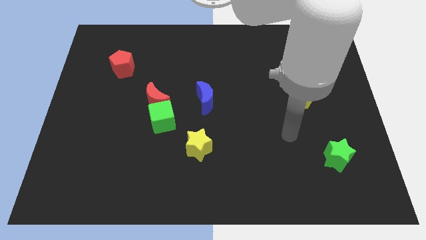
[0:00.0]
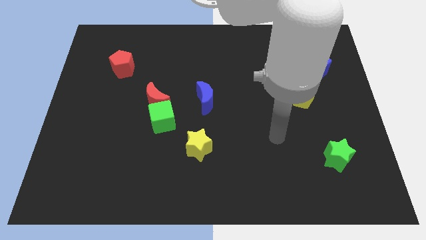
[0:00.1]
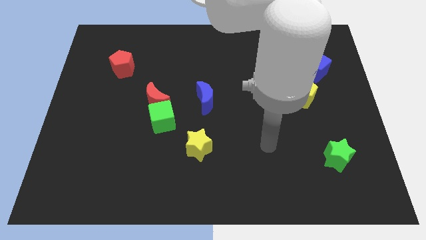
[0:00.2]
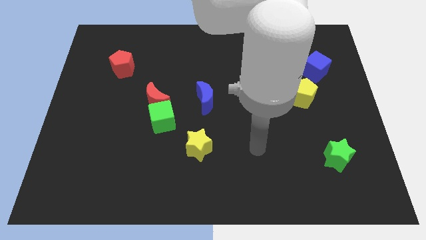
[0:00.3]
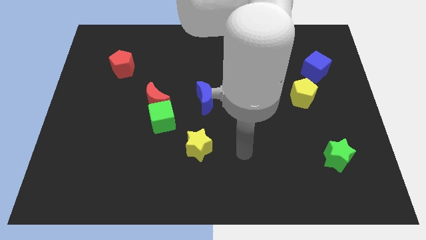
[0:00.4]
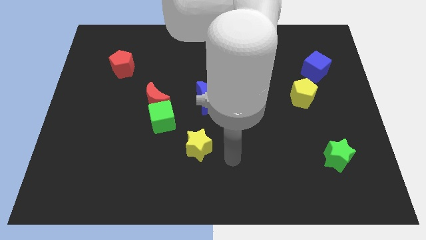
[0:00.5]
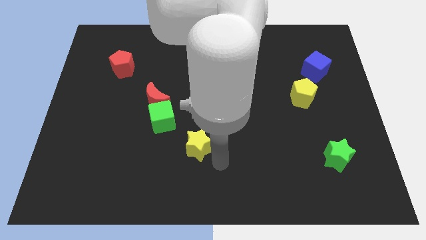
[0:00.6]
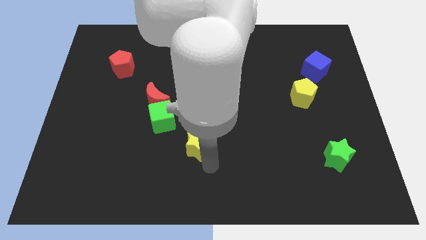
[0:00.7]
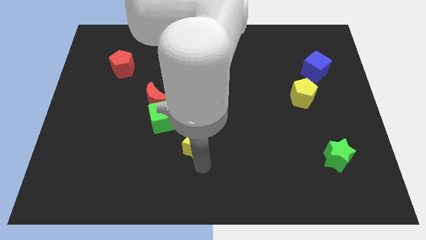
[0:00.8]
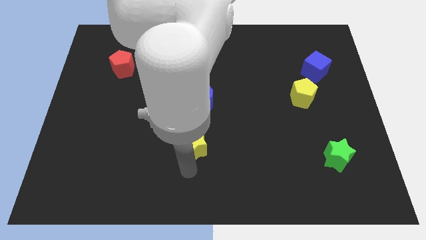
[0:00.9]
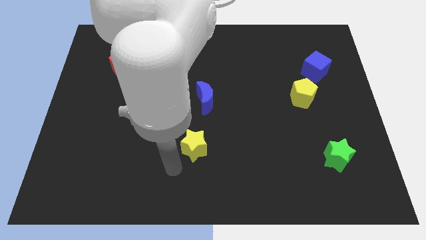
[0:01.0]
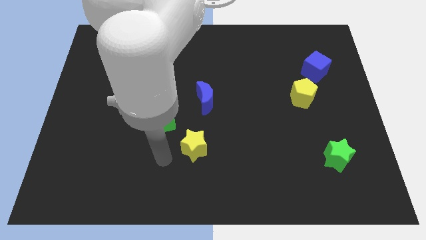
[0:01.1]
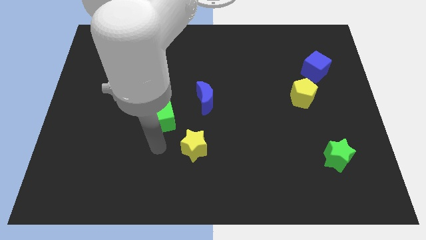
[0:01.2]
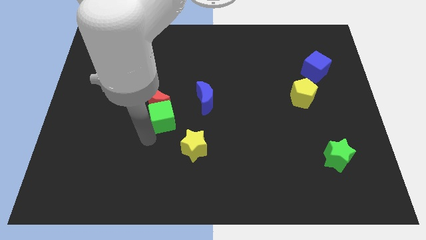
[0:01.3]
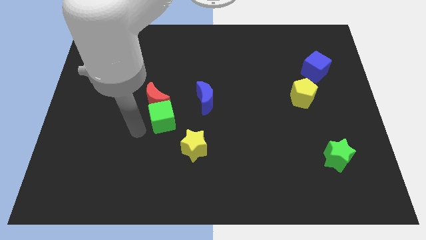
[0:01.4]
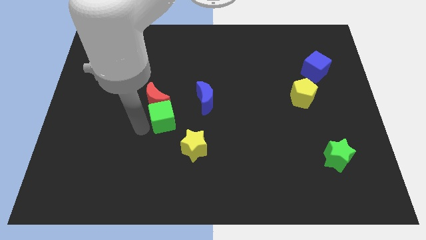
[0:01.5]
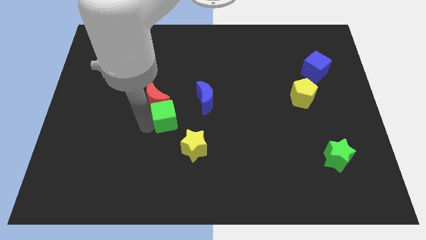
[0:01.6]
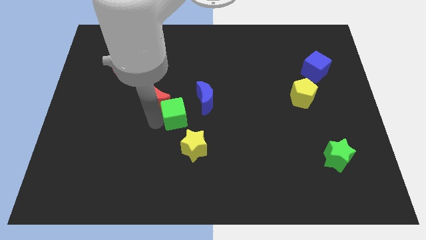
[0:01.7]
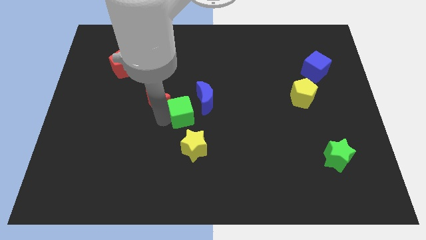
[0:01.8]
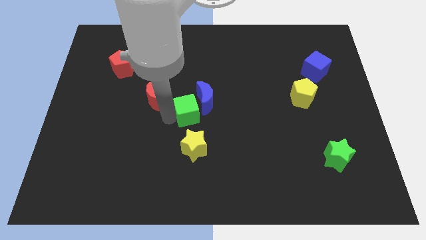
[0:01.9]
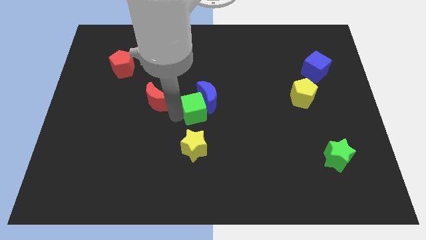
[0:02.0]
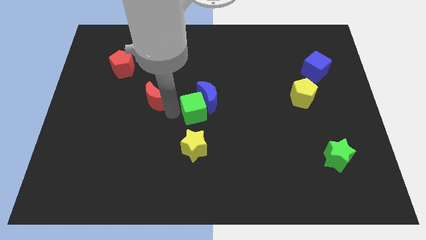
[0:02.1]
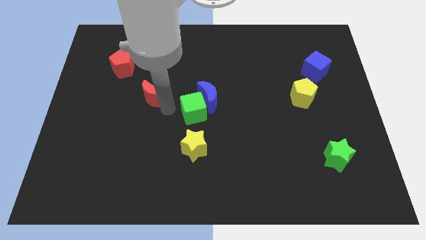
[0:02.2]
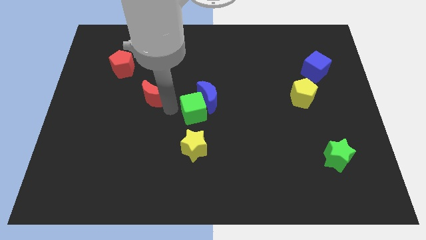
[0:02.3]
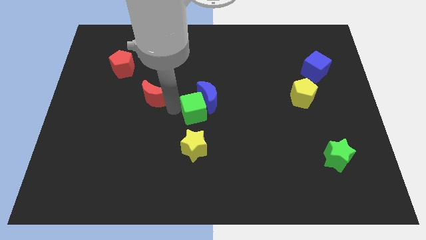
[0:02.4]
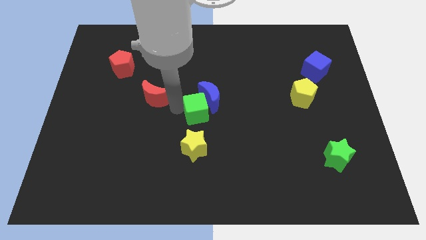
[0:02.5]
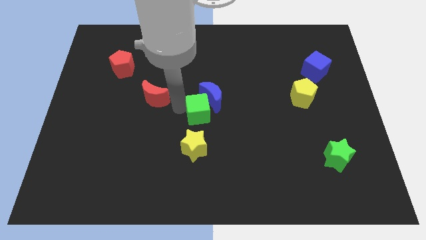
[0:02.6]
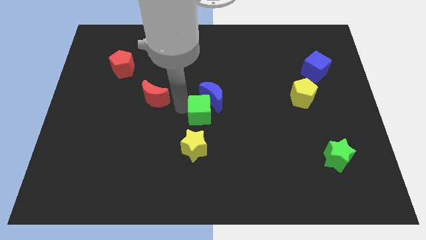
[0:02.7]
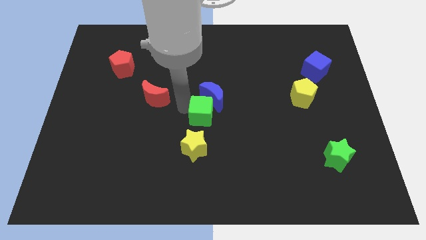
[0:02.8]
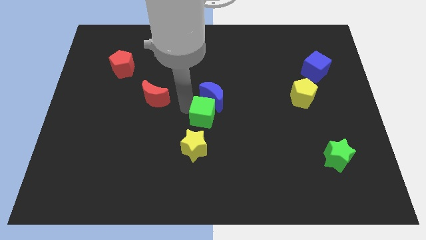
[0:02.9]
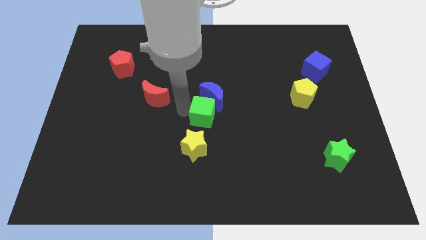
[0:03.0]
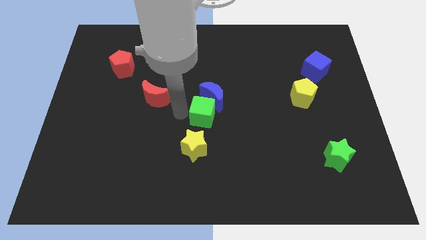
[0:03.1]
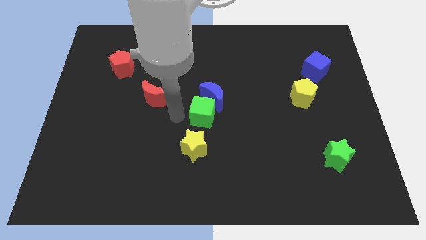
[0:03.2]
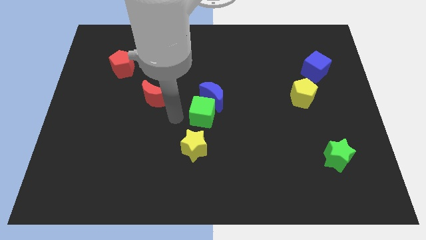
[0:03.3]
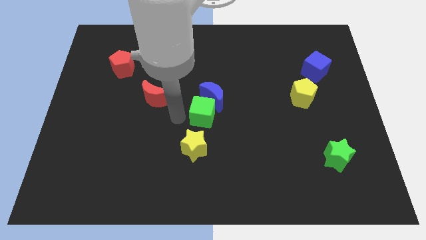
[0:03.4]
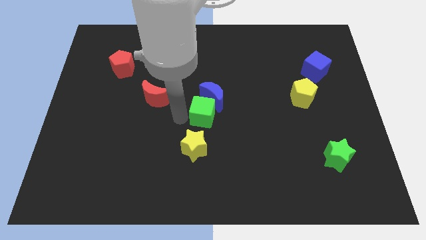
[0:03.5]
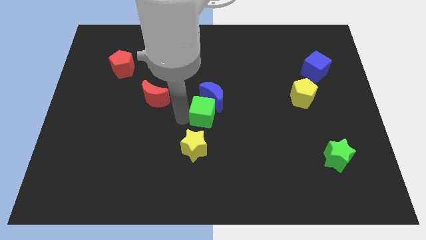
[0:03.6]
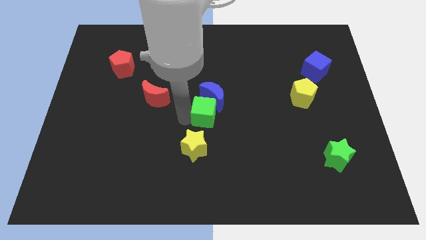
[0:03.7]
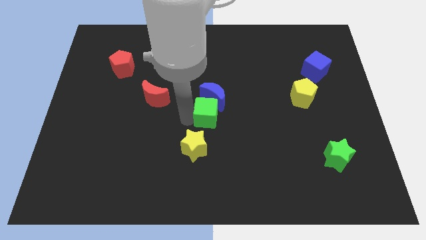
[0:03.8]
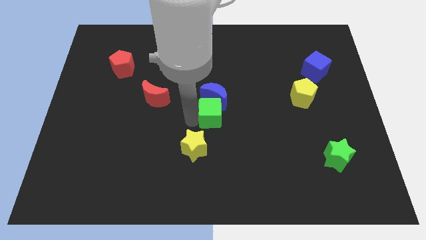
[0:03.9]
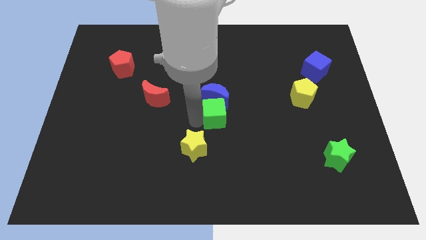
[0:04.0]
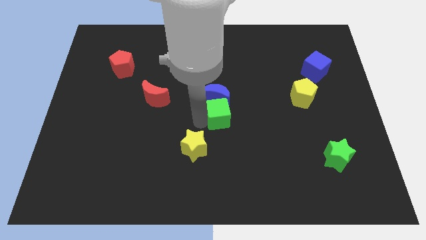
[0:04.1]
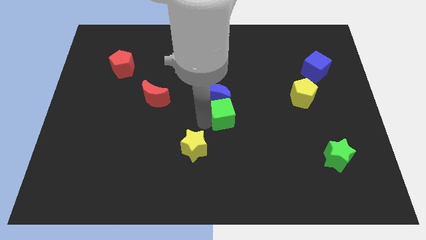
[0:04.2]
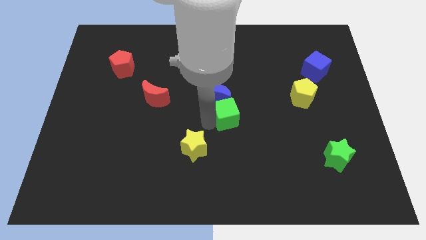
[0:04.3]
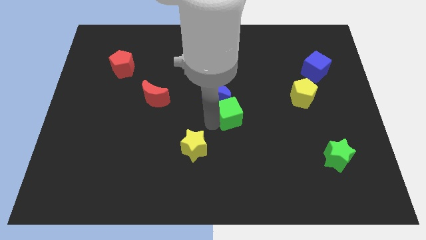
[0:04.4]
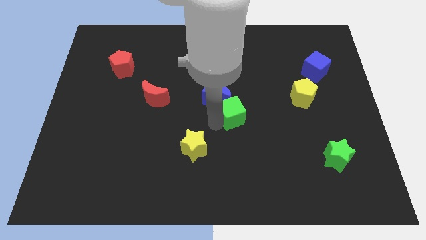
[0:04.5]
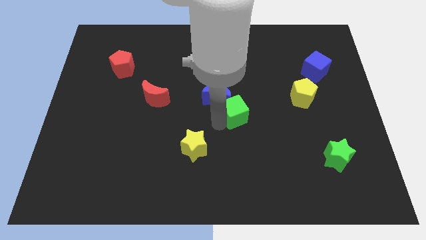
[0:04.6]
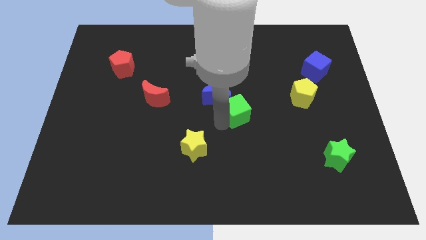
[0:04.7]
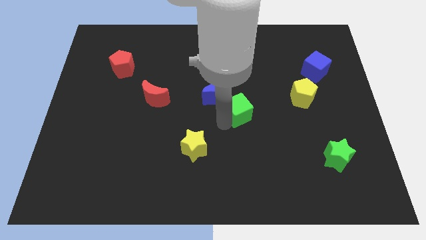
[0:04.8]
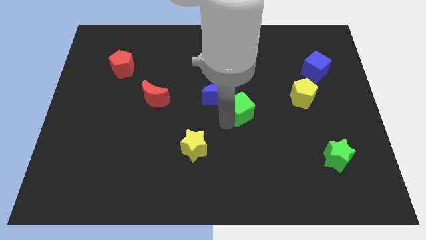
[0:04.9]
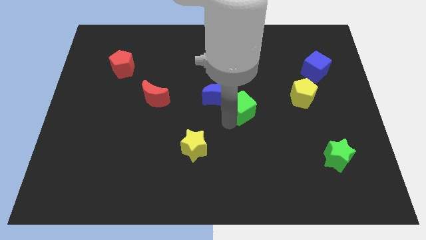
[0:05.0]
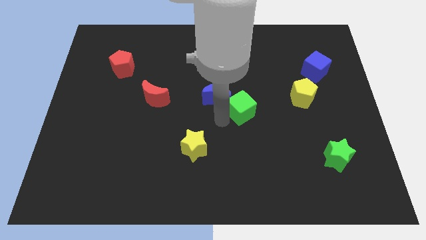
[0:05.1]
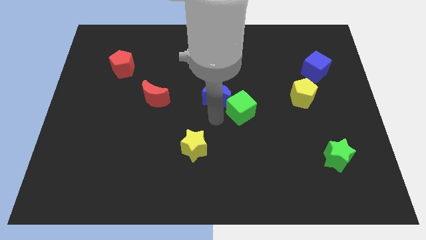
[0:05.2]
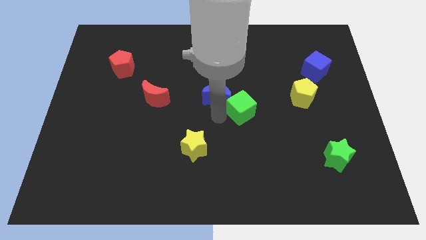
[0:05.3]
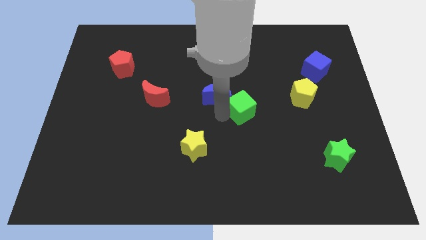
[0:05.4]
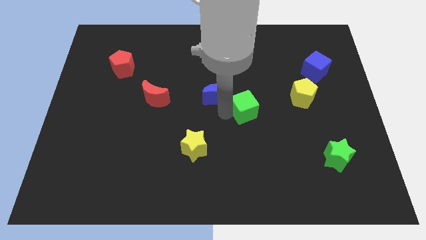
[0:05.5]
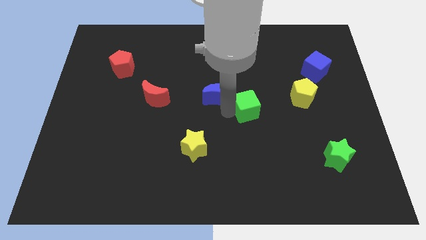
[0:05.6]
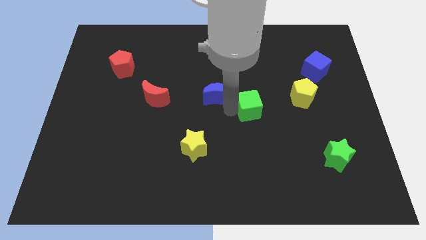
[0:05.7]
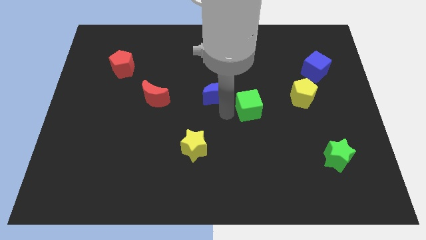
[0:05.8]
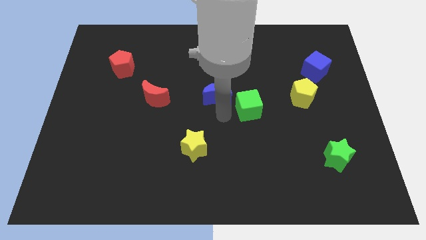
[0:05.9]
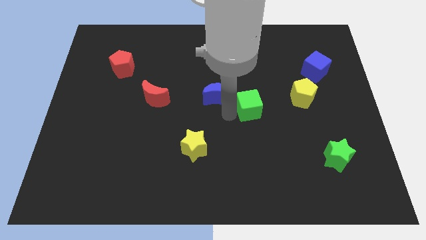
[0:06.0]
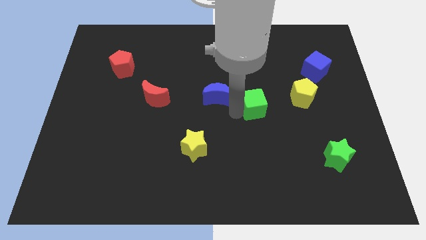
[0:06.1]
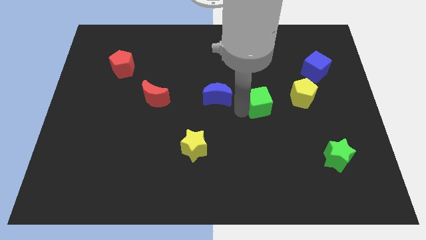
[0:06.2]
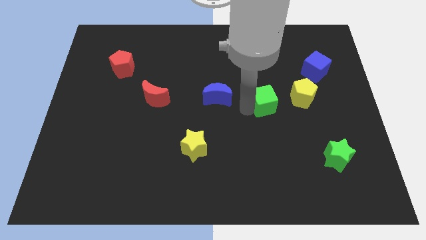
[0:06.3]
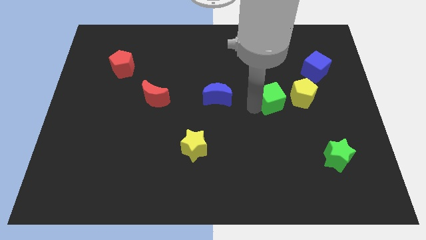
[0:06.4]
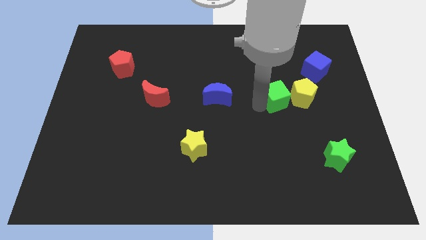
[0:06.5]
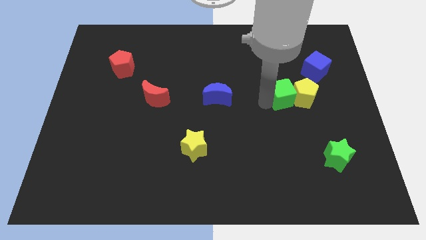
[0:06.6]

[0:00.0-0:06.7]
push the green cube towards the yellow pentagon

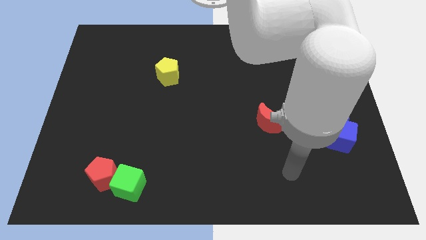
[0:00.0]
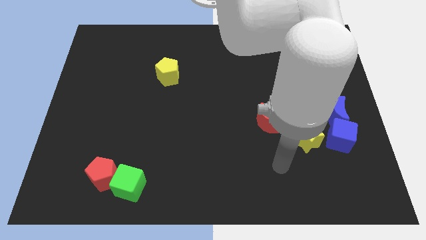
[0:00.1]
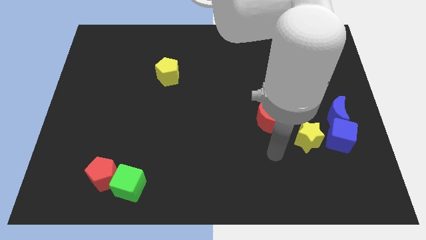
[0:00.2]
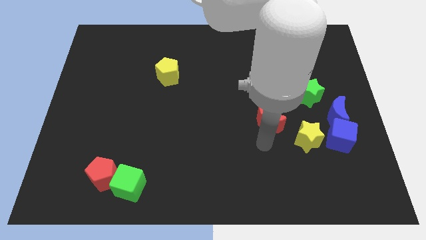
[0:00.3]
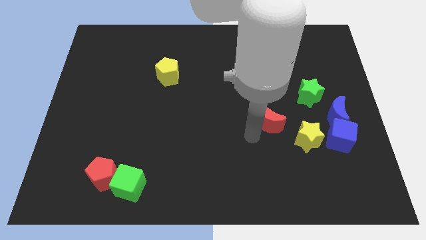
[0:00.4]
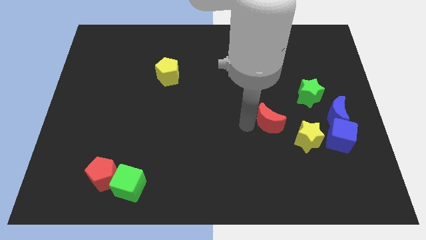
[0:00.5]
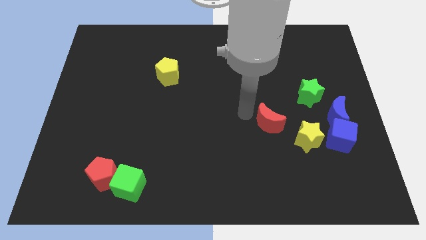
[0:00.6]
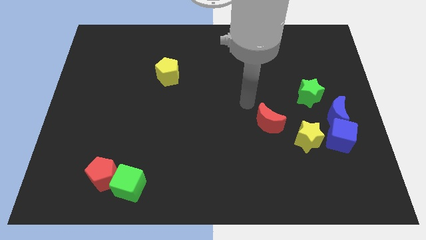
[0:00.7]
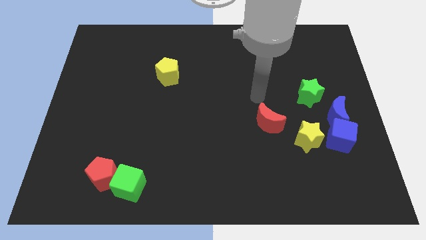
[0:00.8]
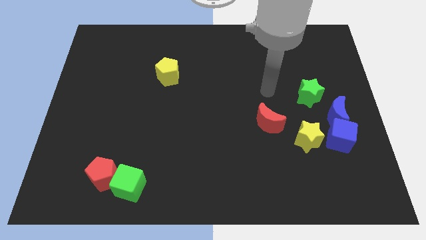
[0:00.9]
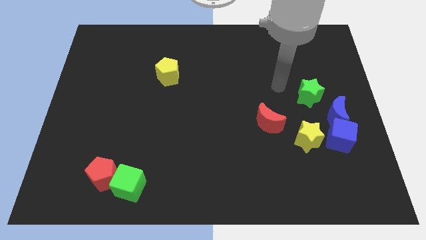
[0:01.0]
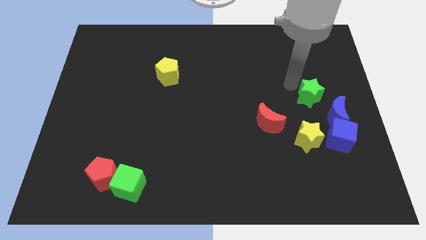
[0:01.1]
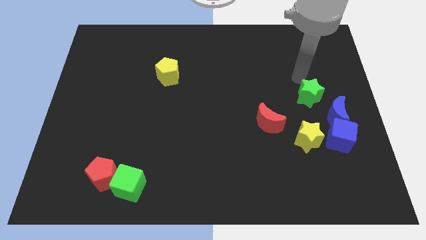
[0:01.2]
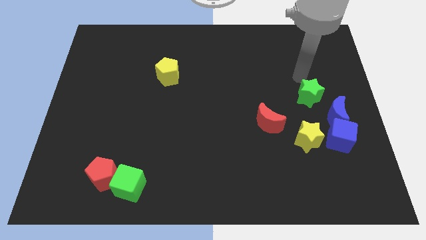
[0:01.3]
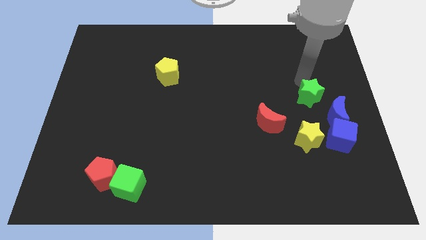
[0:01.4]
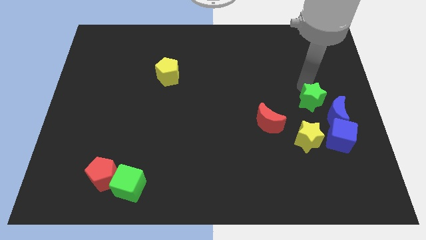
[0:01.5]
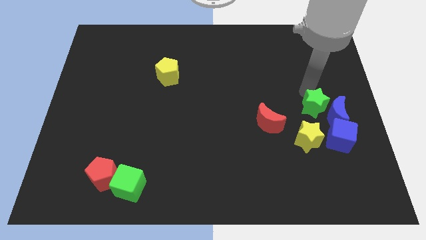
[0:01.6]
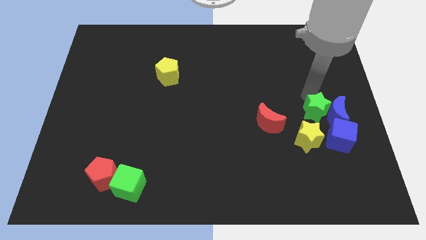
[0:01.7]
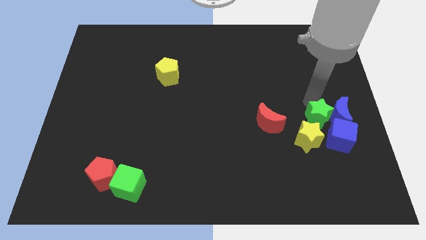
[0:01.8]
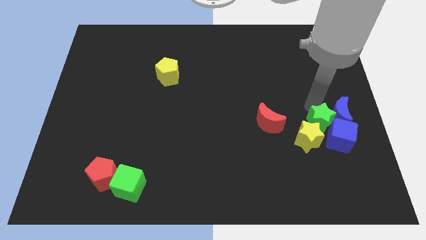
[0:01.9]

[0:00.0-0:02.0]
move the green star towards the blue cube
